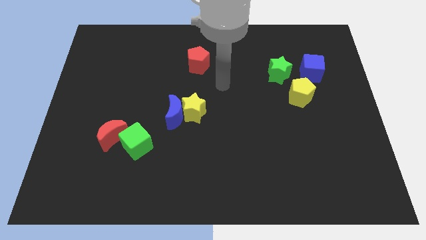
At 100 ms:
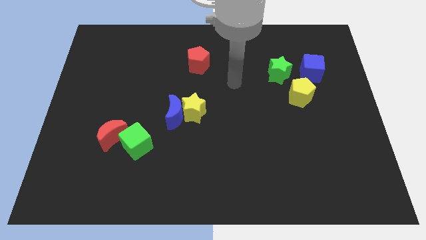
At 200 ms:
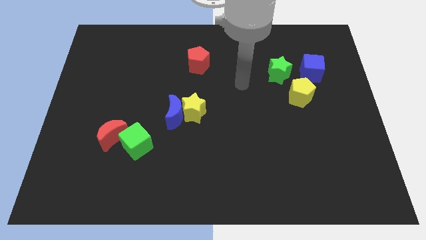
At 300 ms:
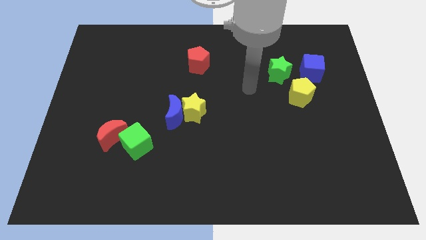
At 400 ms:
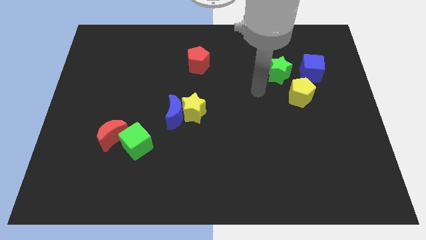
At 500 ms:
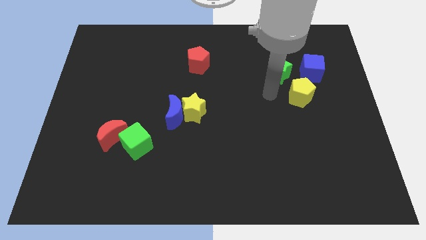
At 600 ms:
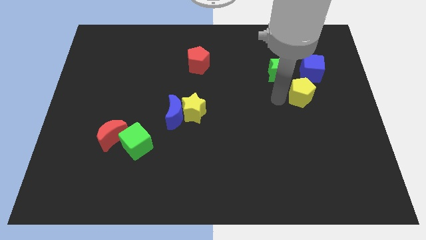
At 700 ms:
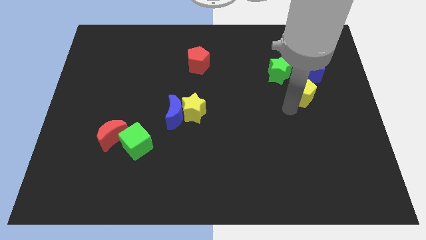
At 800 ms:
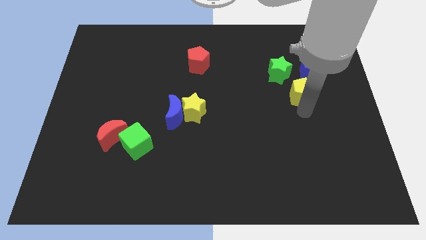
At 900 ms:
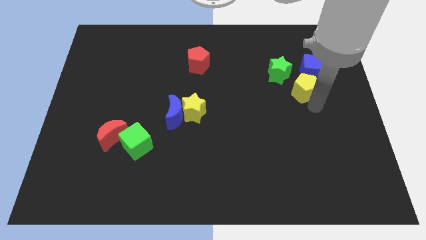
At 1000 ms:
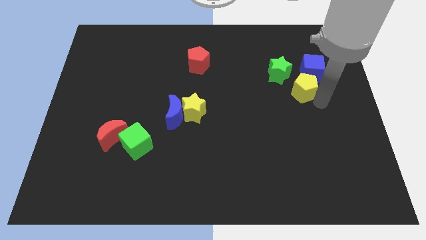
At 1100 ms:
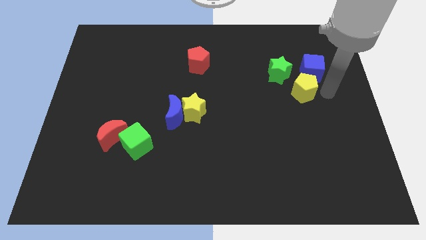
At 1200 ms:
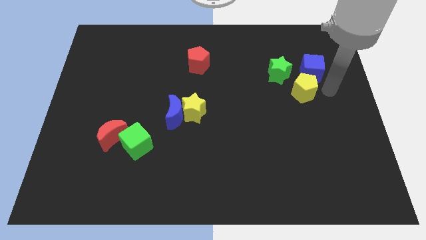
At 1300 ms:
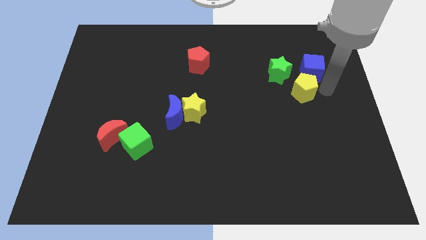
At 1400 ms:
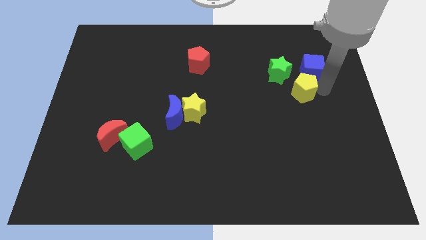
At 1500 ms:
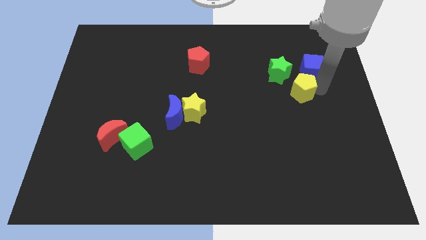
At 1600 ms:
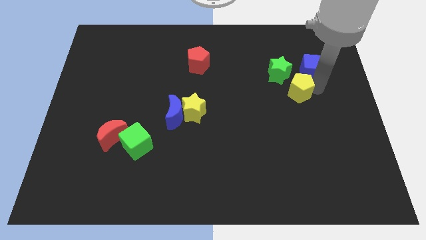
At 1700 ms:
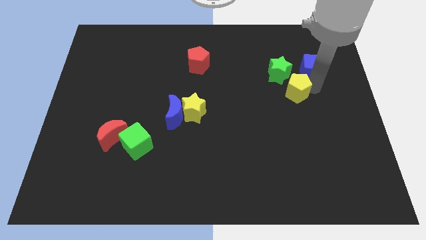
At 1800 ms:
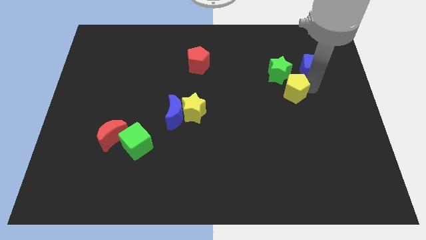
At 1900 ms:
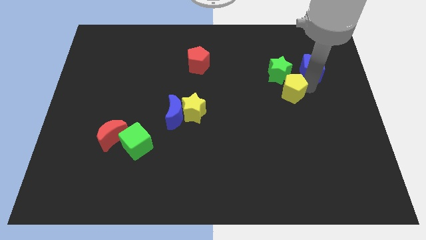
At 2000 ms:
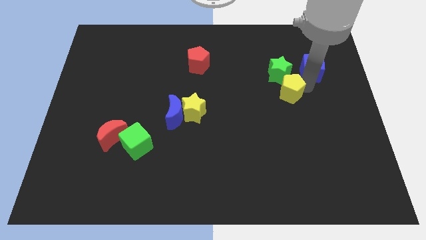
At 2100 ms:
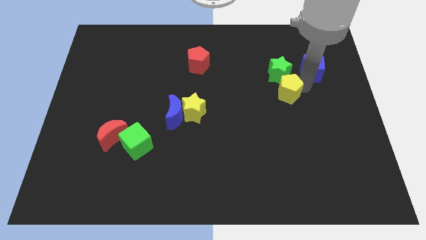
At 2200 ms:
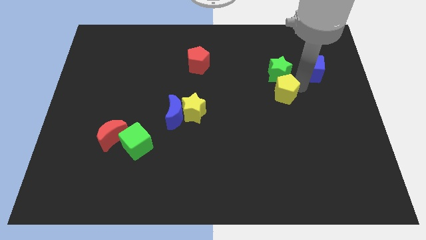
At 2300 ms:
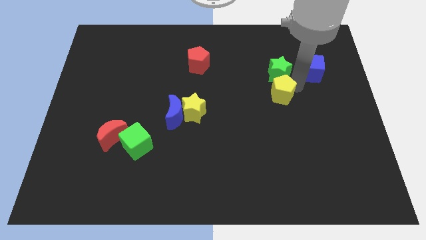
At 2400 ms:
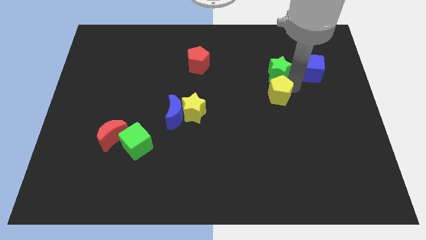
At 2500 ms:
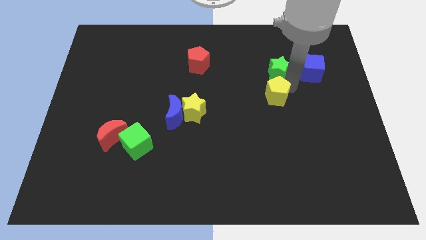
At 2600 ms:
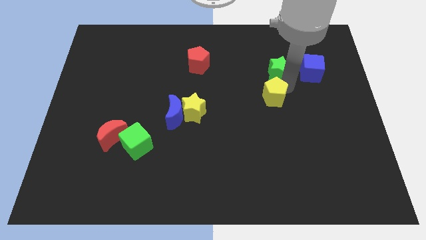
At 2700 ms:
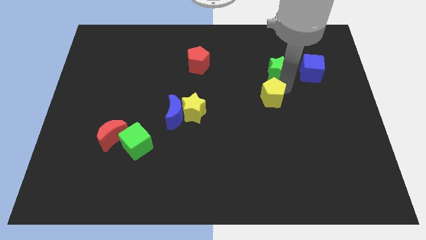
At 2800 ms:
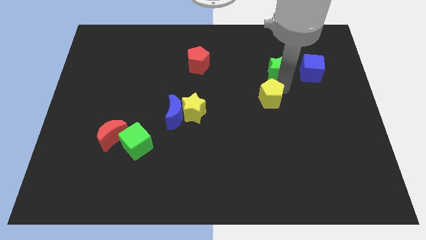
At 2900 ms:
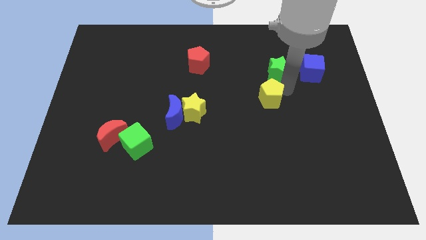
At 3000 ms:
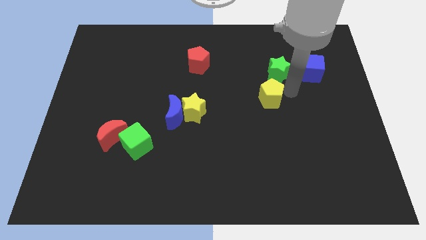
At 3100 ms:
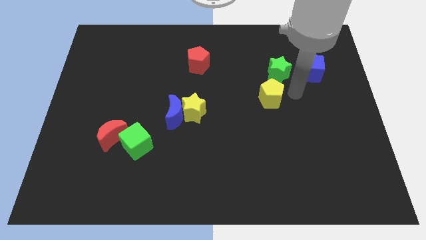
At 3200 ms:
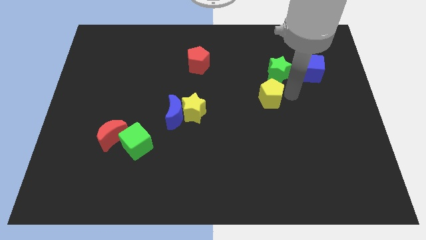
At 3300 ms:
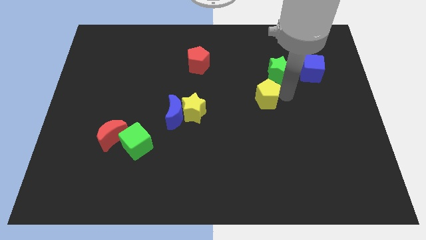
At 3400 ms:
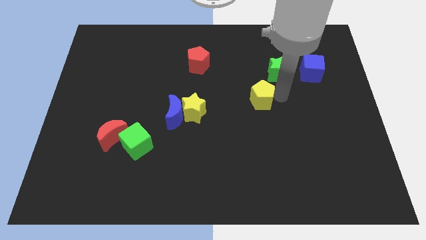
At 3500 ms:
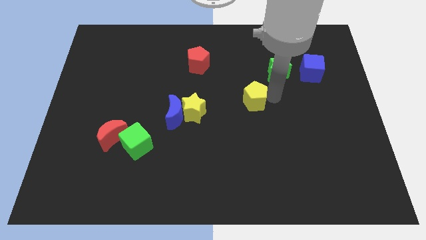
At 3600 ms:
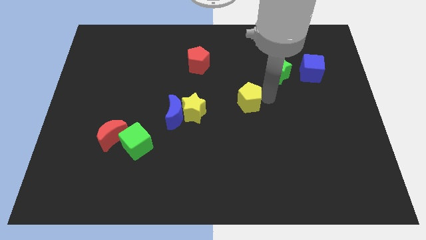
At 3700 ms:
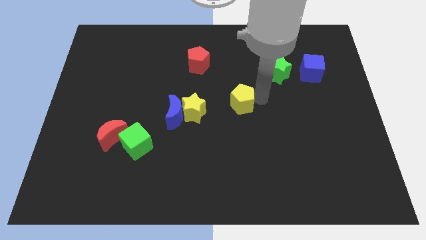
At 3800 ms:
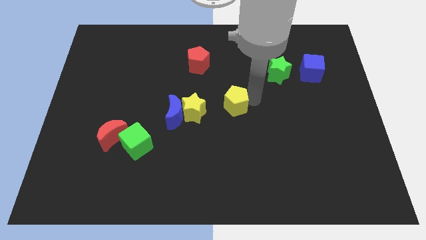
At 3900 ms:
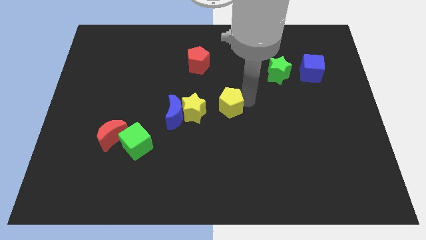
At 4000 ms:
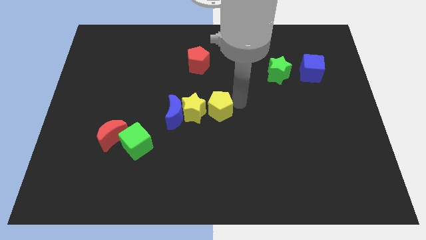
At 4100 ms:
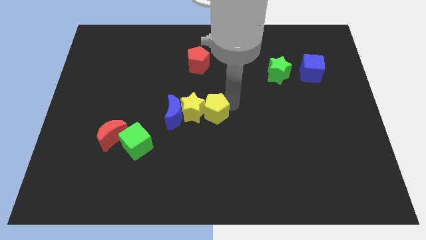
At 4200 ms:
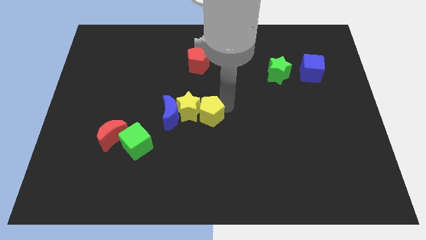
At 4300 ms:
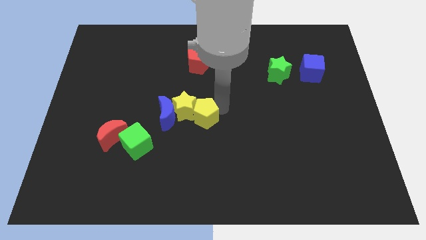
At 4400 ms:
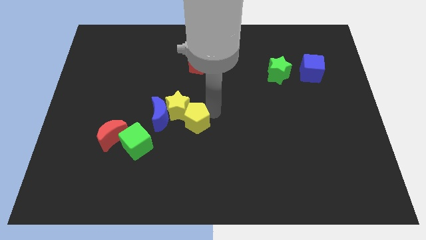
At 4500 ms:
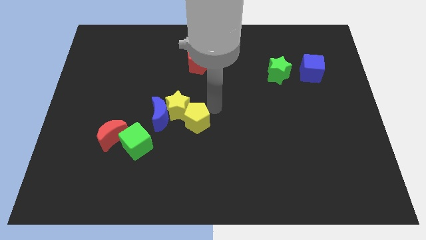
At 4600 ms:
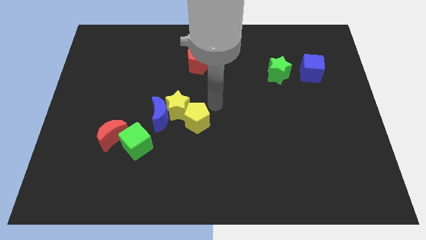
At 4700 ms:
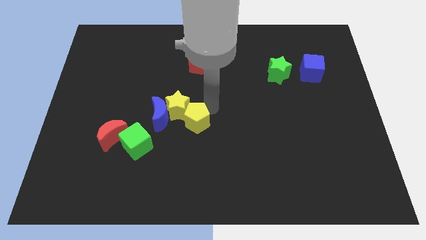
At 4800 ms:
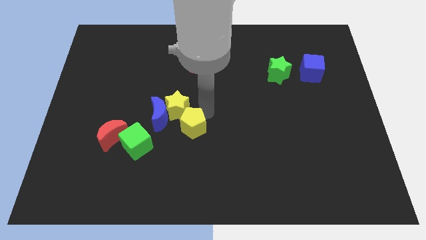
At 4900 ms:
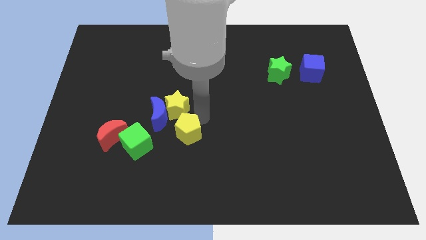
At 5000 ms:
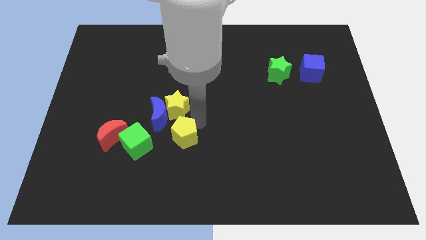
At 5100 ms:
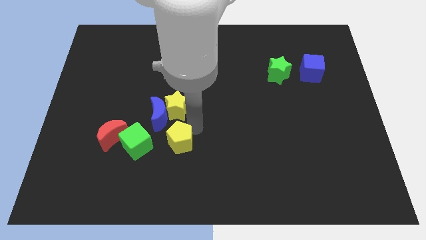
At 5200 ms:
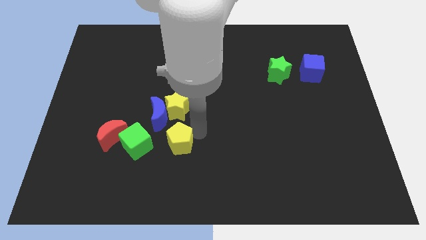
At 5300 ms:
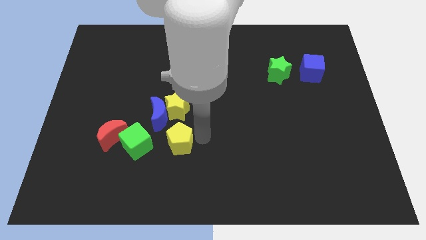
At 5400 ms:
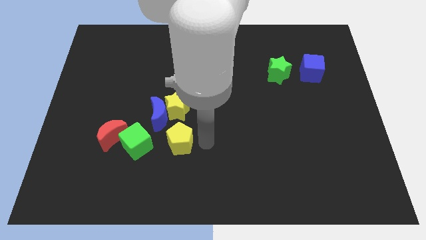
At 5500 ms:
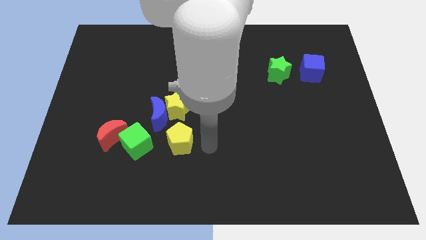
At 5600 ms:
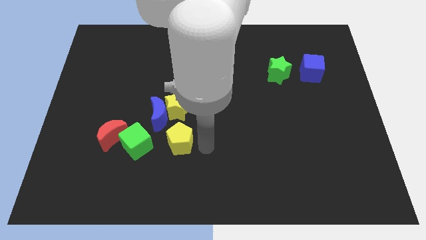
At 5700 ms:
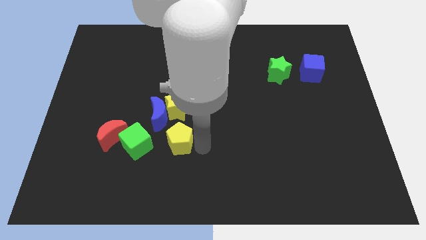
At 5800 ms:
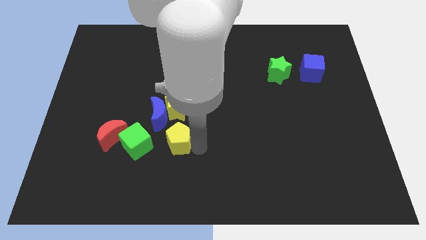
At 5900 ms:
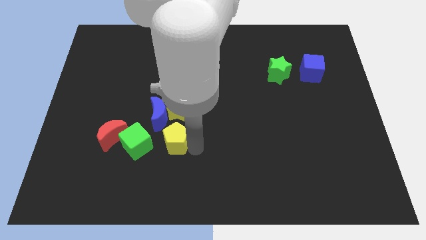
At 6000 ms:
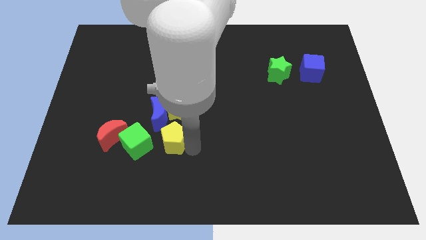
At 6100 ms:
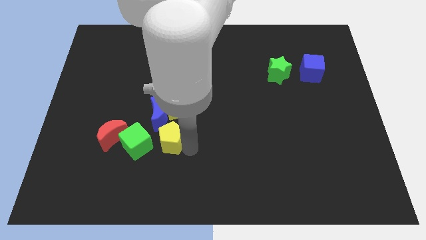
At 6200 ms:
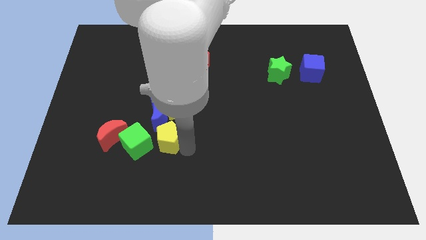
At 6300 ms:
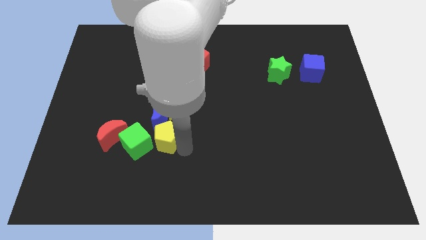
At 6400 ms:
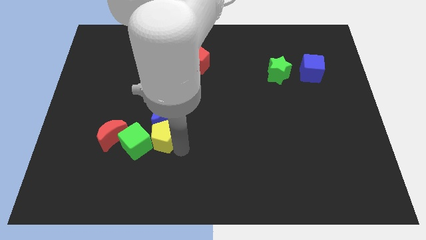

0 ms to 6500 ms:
slide the yellow pentagon close to the green cube

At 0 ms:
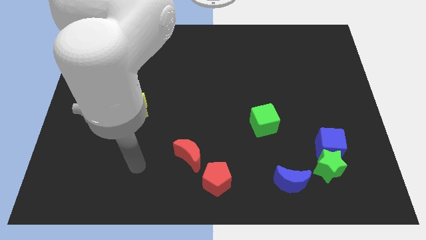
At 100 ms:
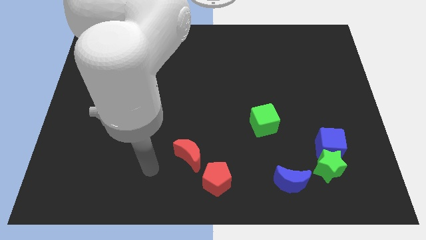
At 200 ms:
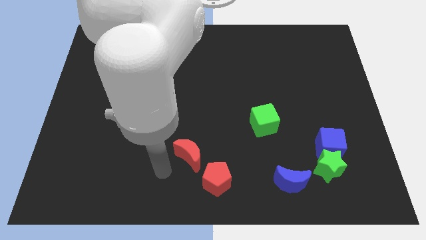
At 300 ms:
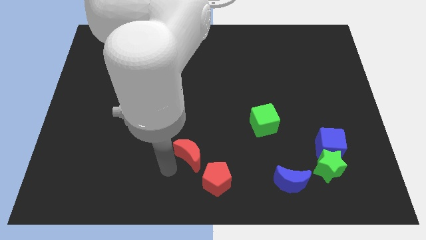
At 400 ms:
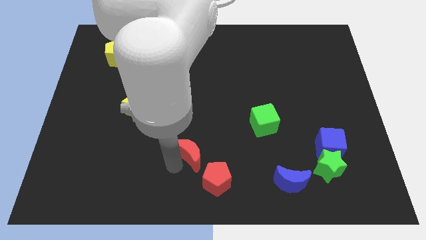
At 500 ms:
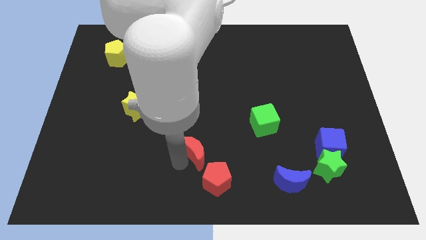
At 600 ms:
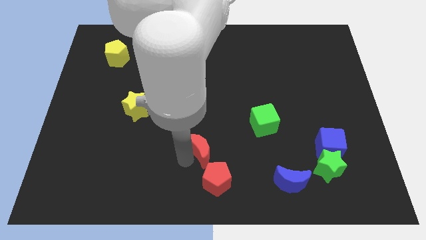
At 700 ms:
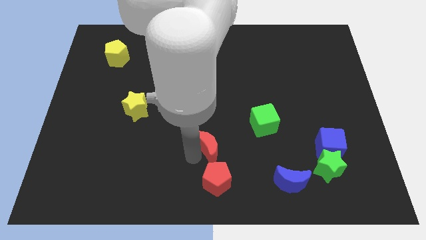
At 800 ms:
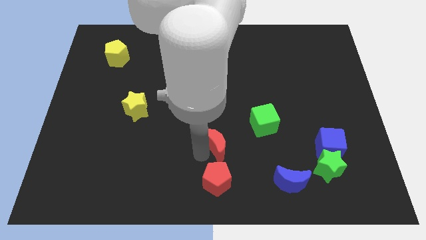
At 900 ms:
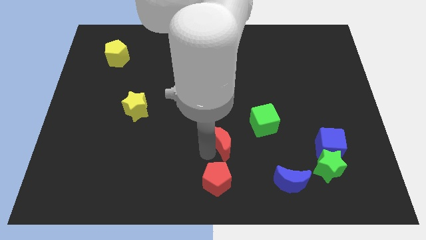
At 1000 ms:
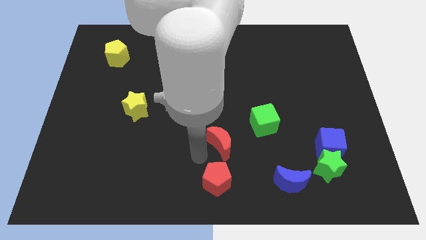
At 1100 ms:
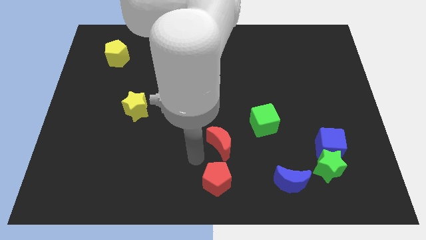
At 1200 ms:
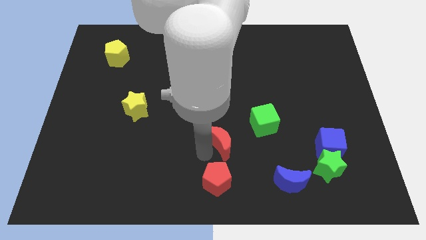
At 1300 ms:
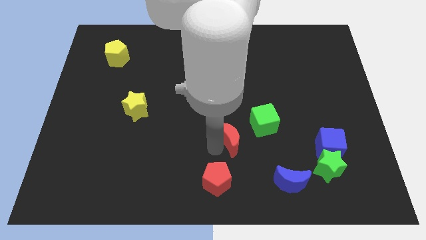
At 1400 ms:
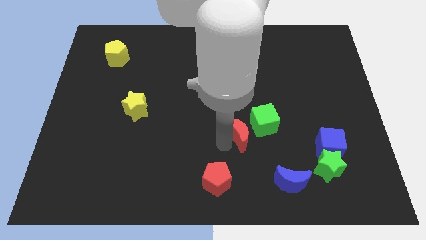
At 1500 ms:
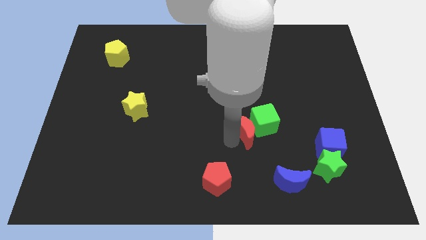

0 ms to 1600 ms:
move the red moon close to the green cube
